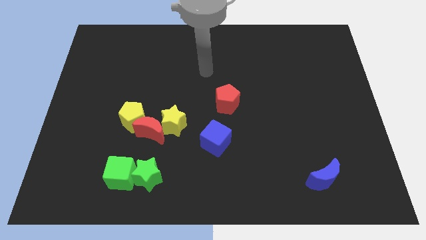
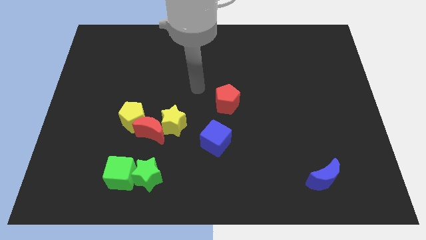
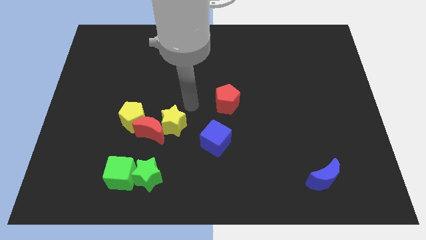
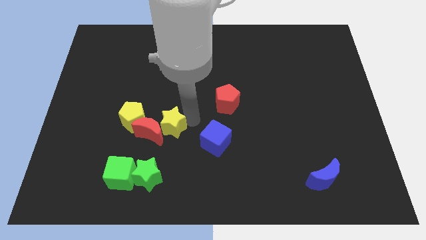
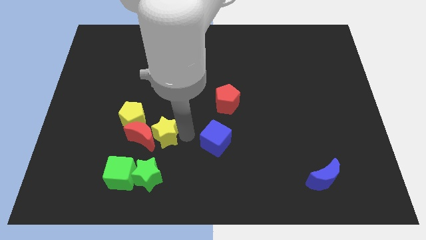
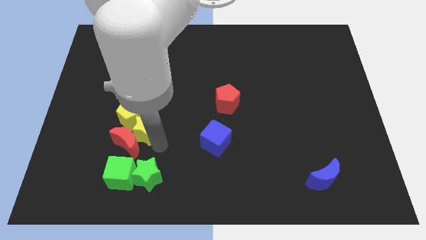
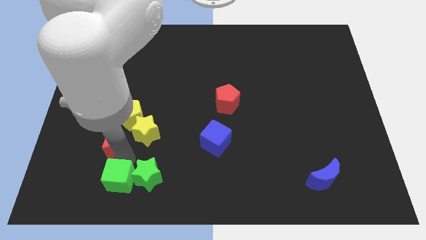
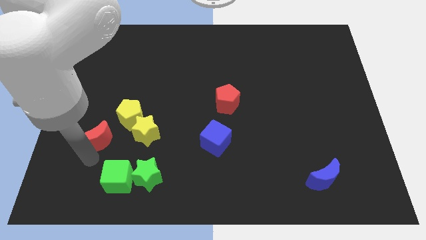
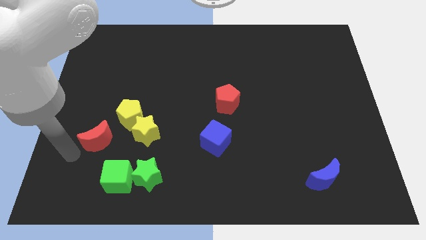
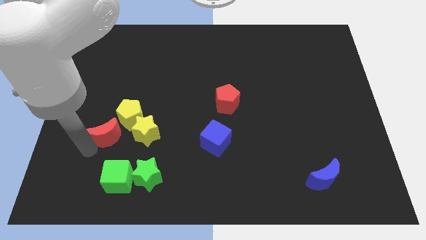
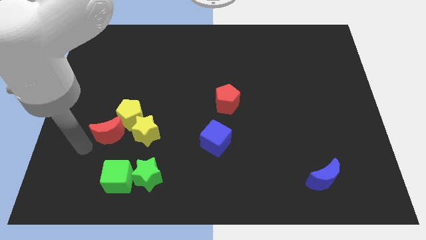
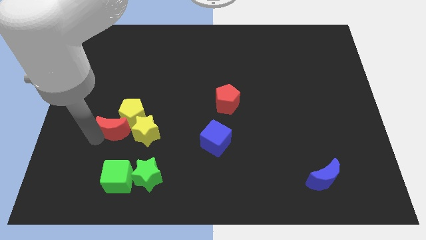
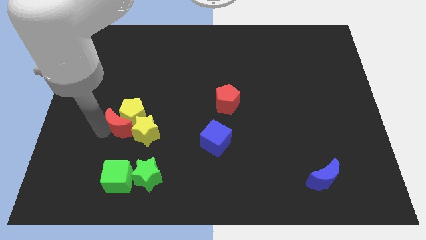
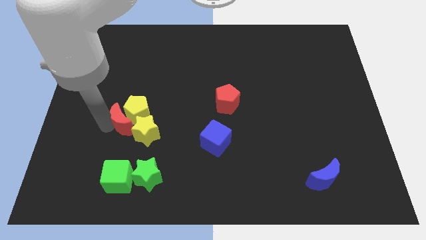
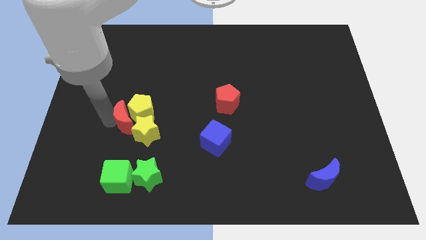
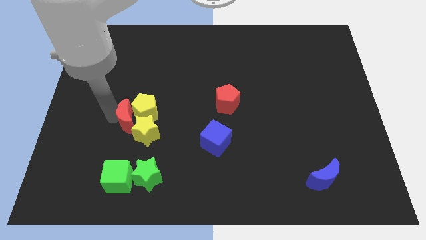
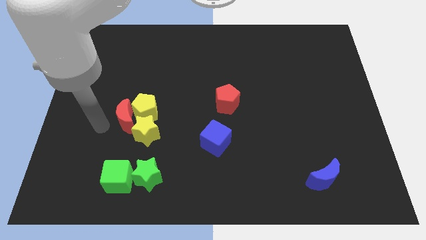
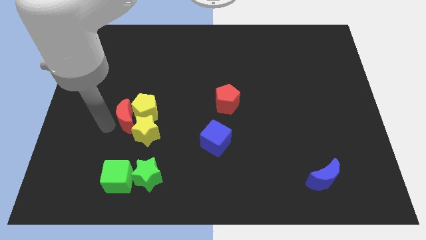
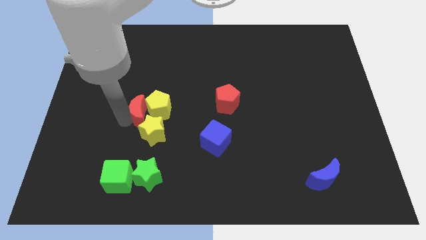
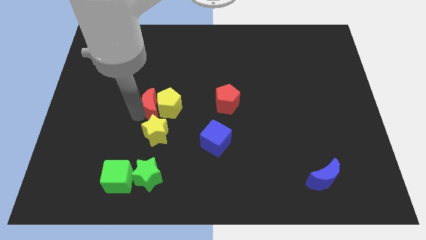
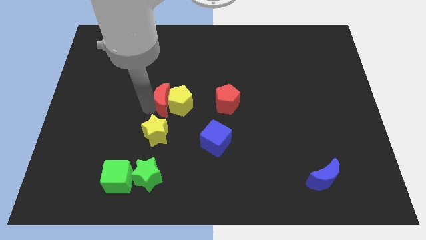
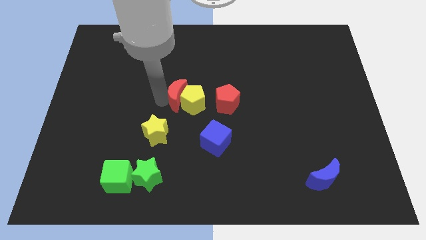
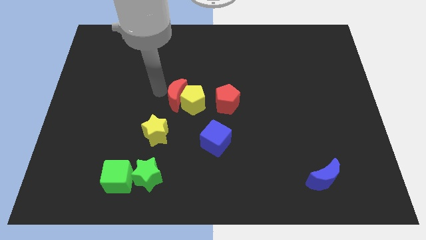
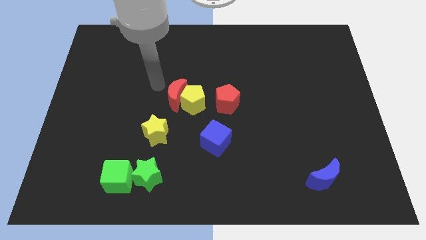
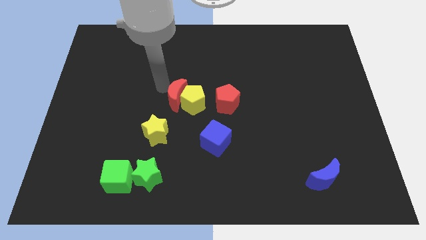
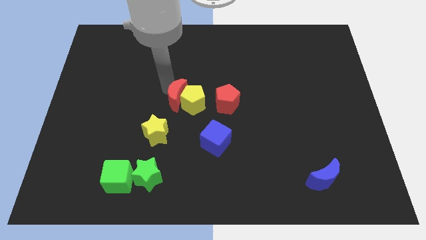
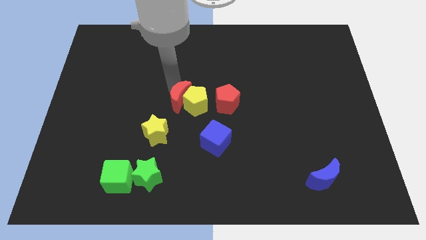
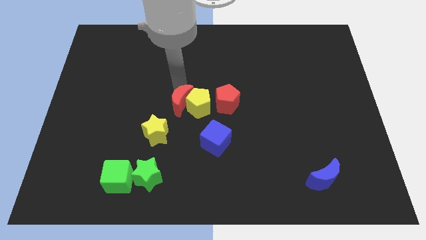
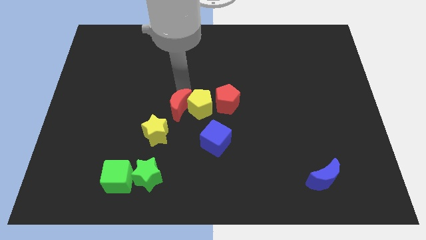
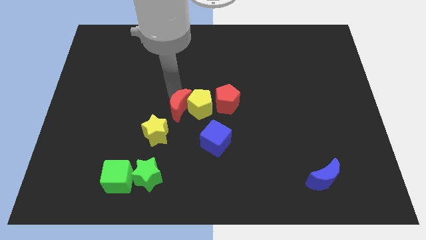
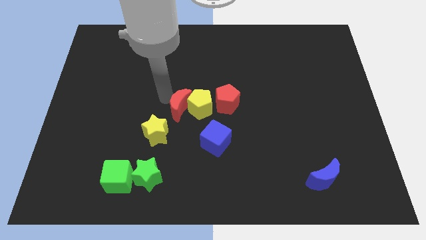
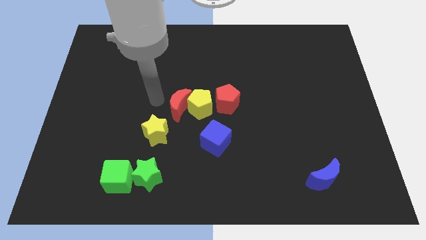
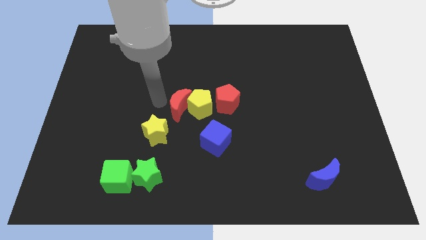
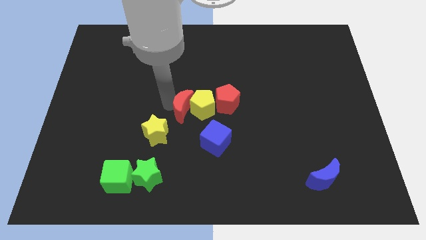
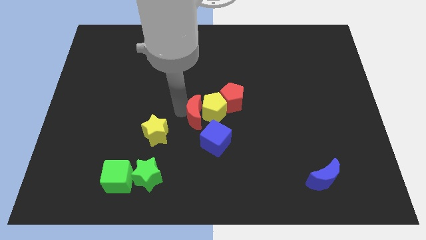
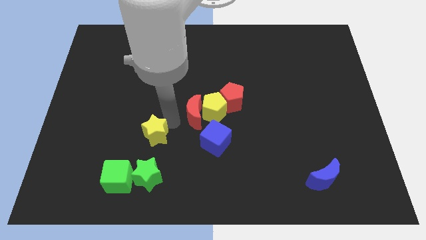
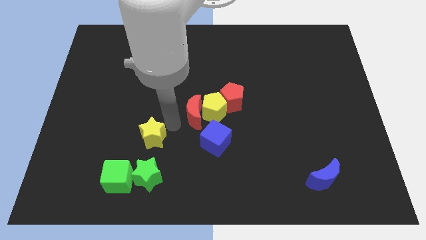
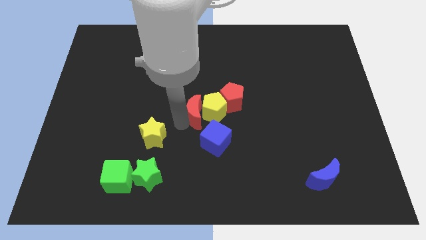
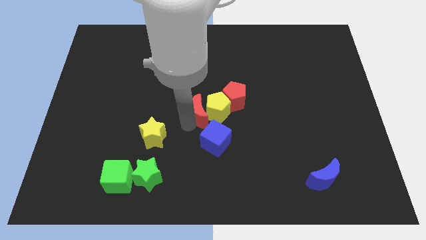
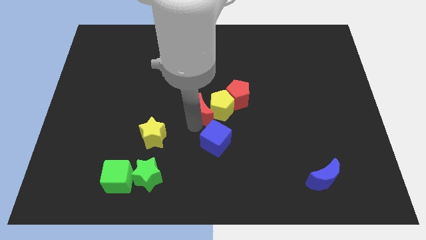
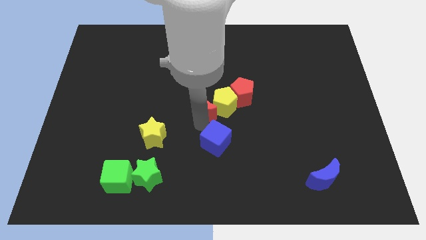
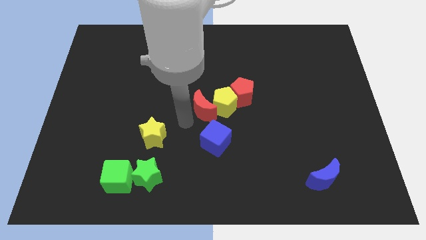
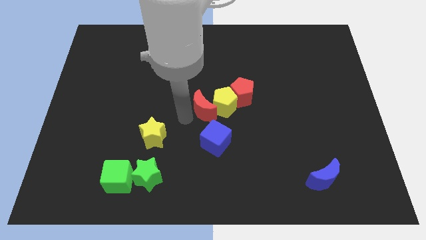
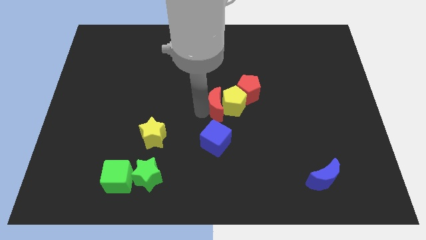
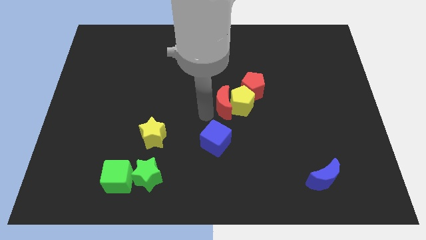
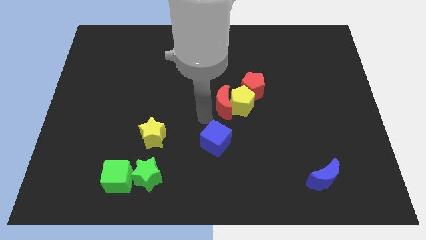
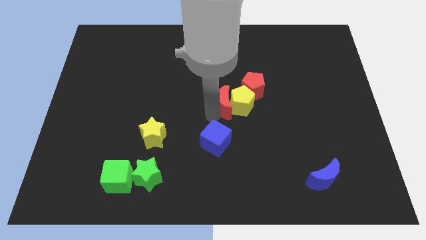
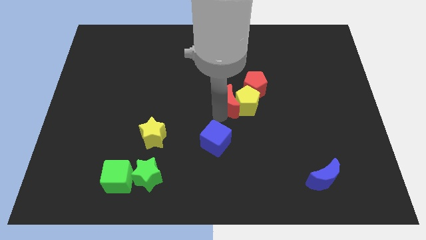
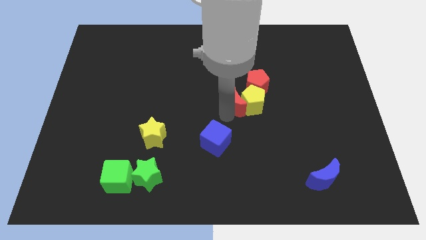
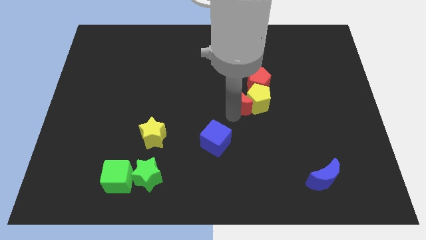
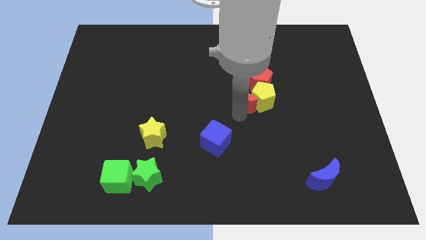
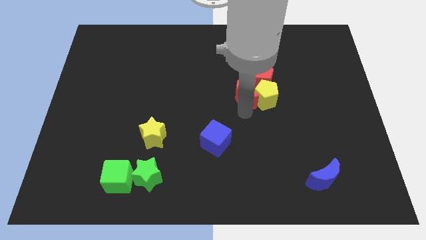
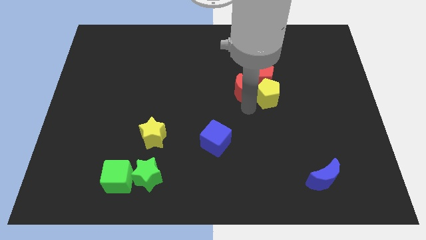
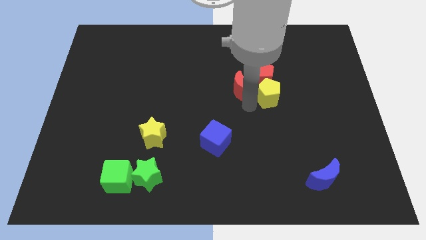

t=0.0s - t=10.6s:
push the red moon next to the red pentagon

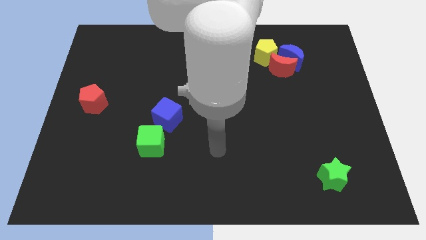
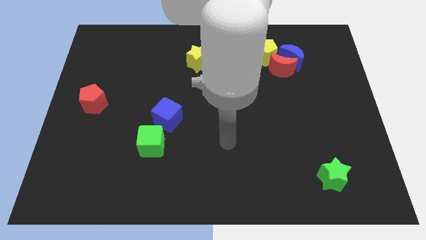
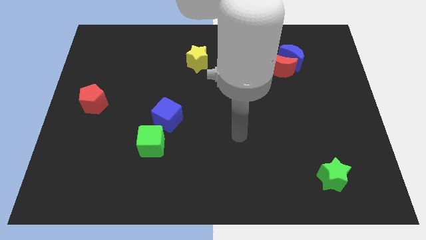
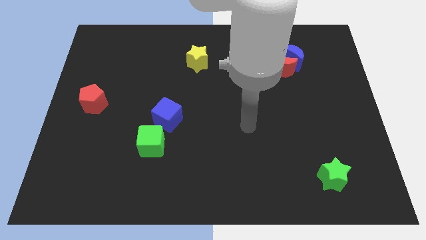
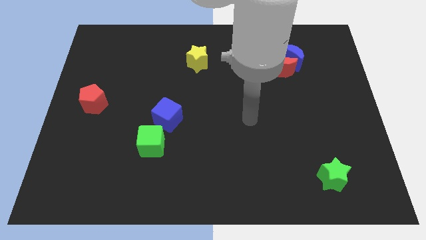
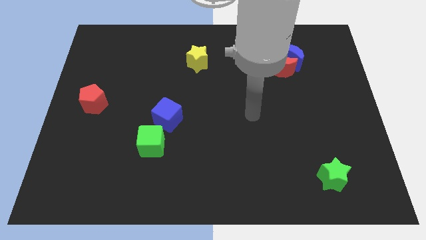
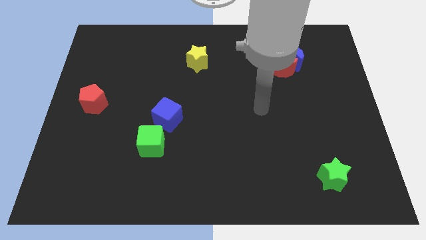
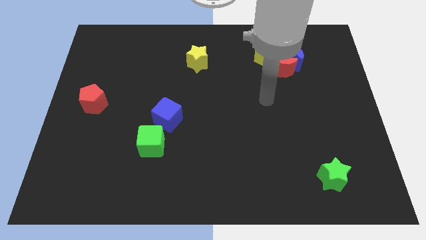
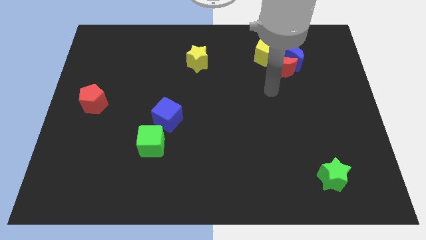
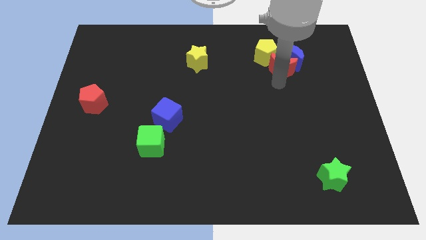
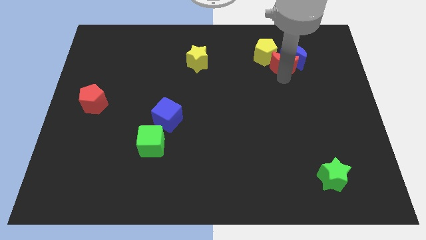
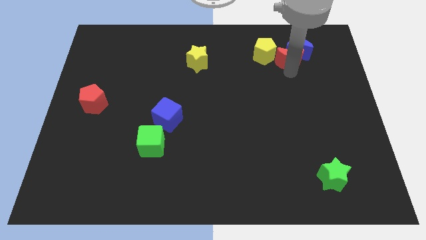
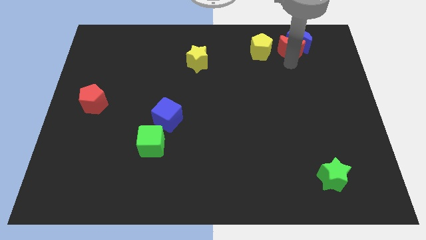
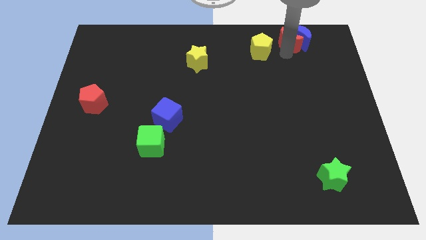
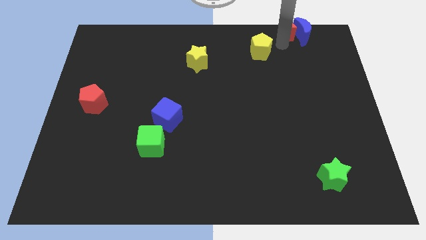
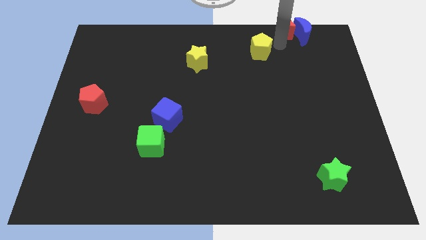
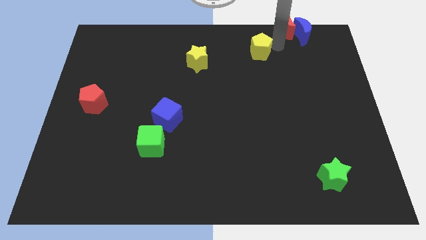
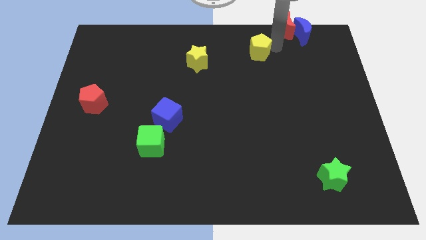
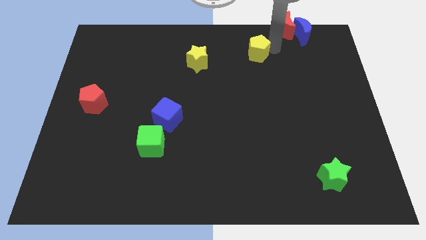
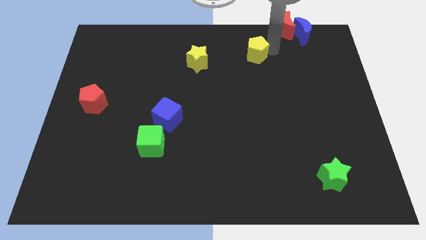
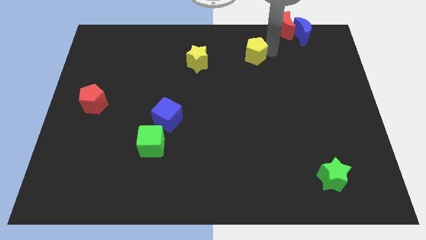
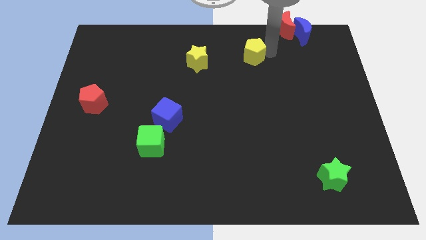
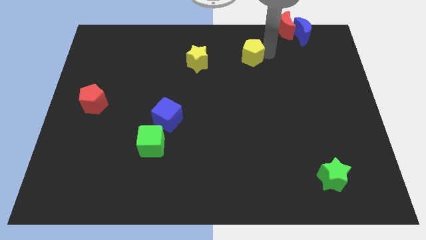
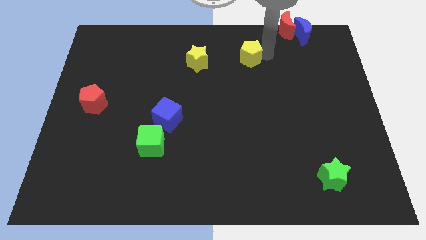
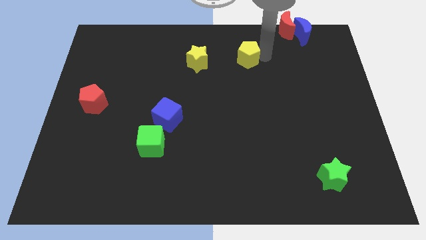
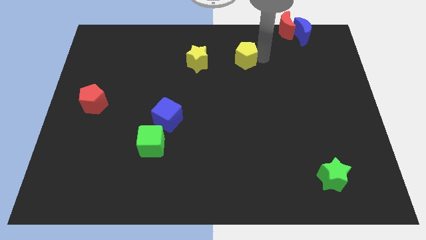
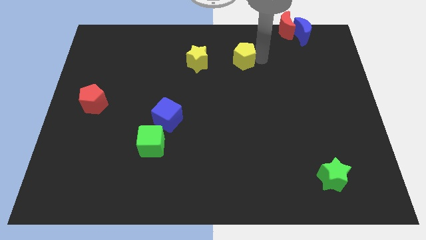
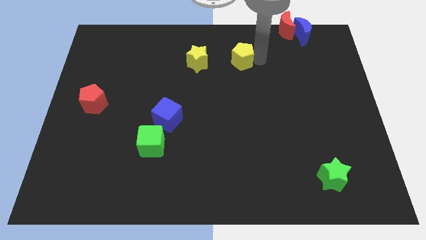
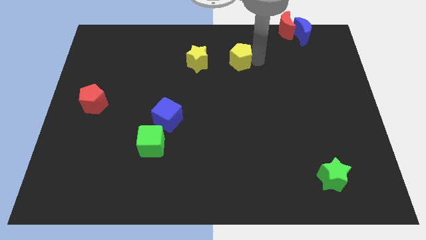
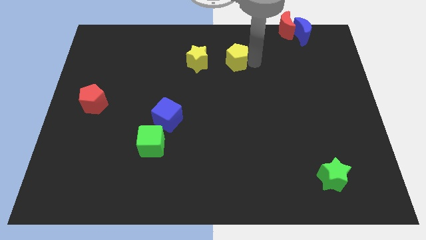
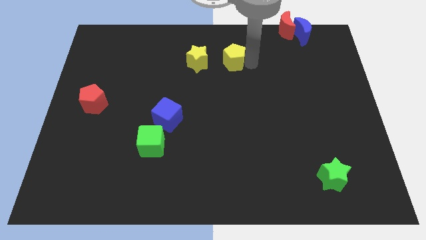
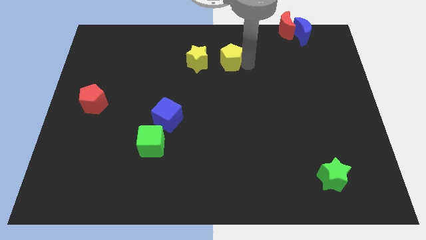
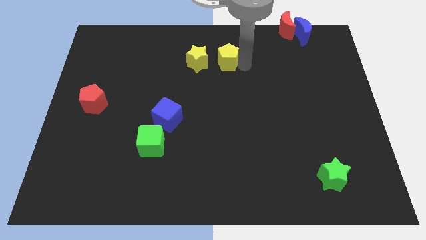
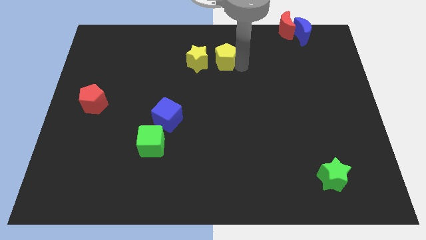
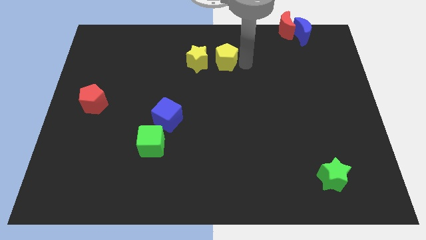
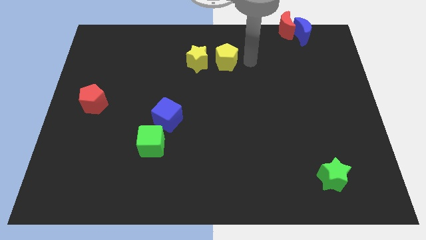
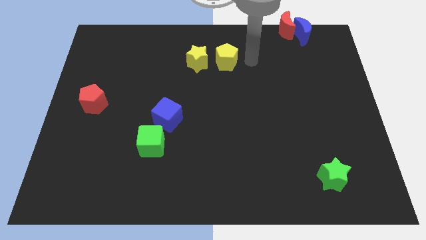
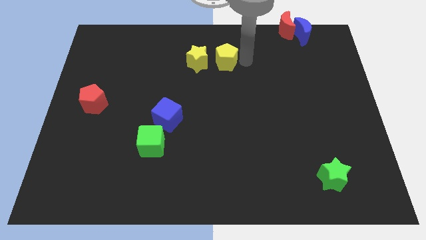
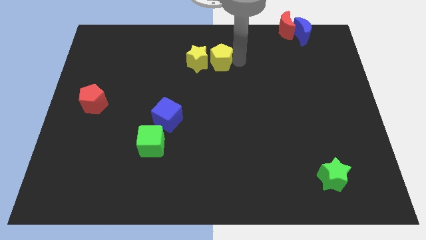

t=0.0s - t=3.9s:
push the yellow pentagon towards the yellow star
